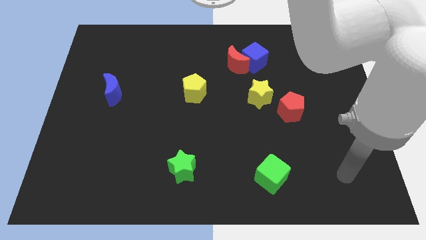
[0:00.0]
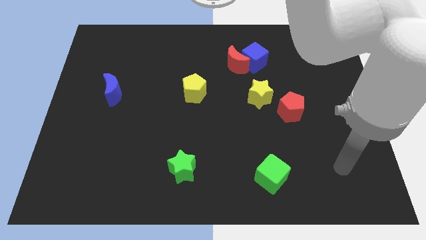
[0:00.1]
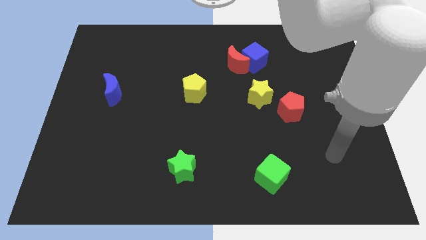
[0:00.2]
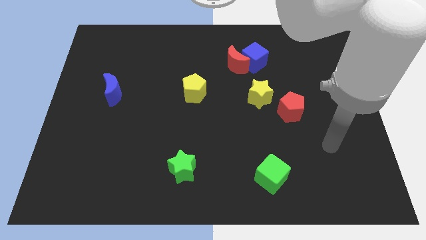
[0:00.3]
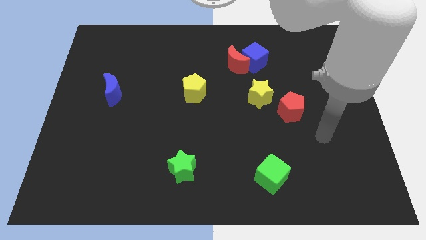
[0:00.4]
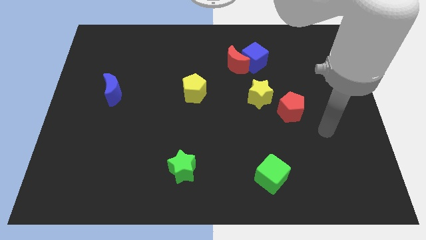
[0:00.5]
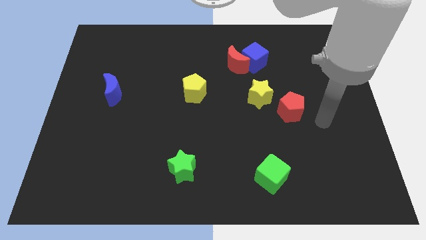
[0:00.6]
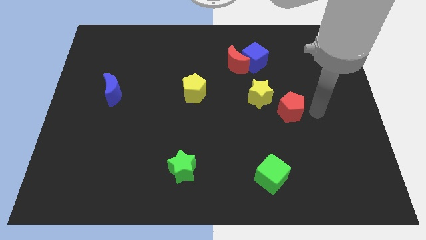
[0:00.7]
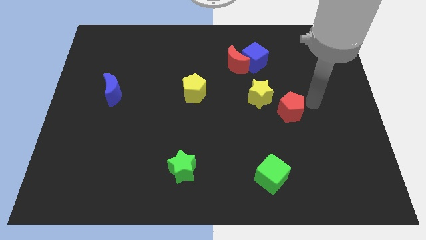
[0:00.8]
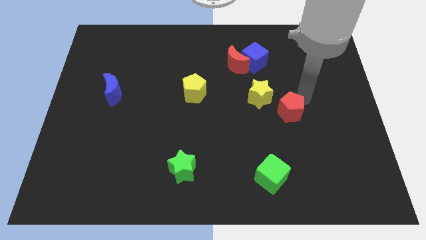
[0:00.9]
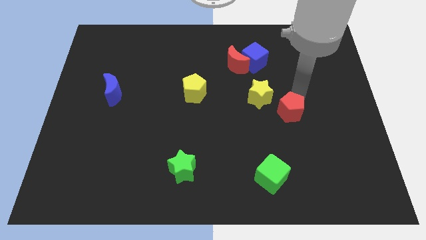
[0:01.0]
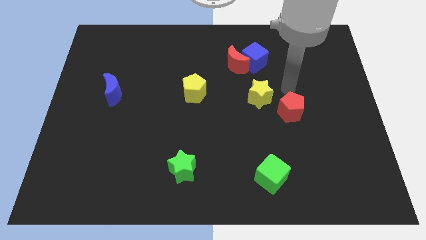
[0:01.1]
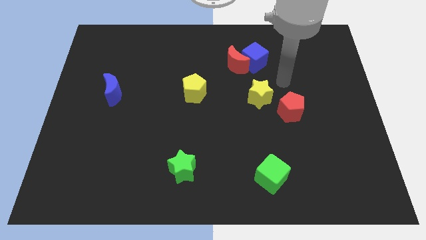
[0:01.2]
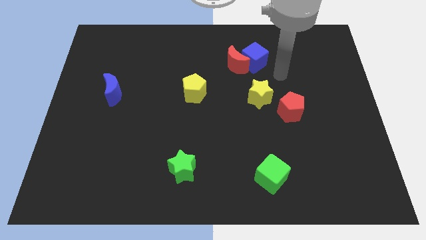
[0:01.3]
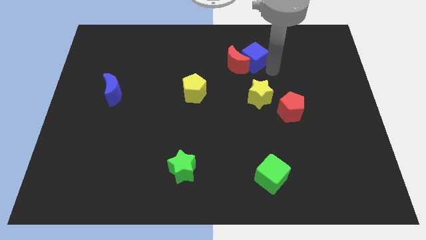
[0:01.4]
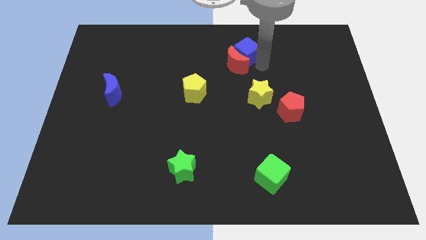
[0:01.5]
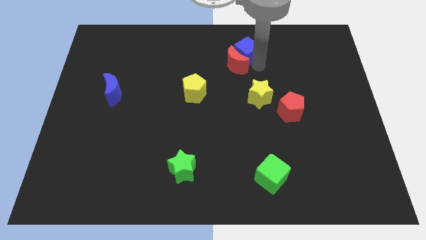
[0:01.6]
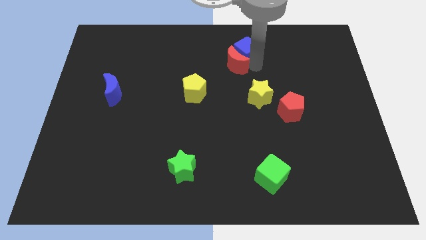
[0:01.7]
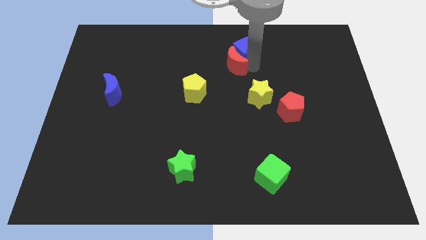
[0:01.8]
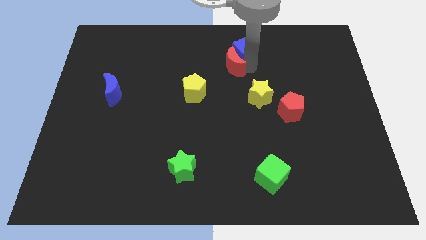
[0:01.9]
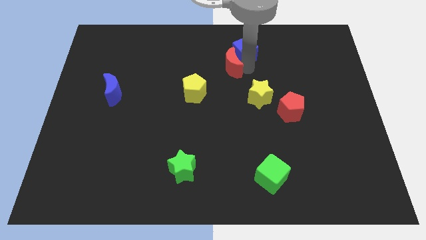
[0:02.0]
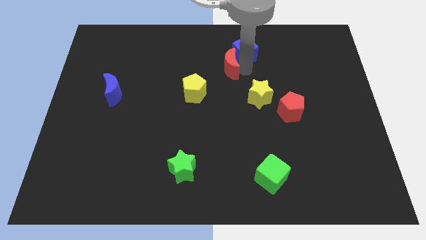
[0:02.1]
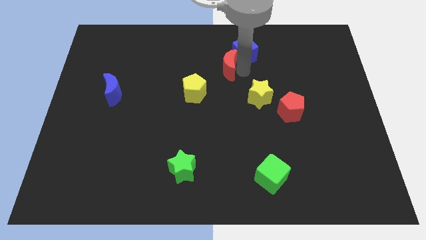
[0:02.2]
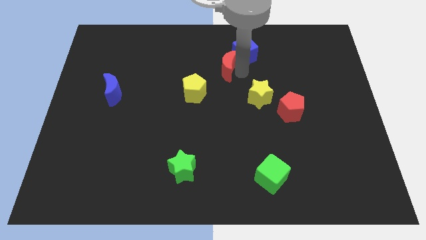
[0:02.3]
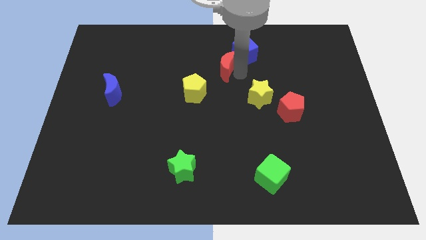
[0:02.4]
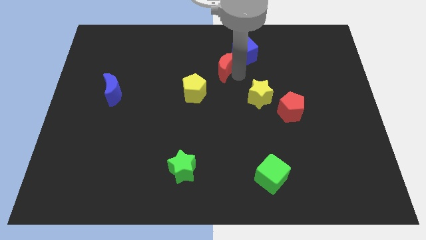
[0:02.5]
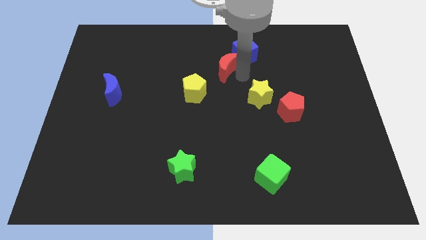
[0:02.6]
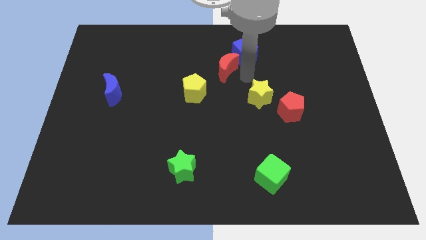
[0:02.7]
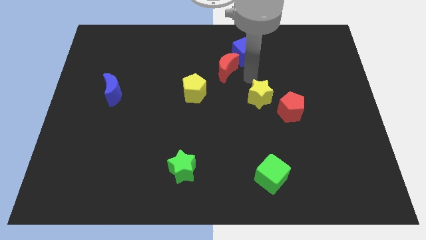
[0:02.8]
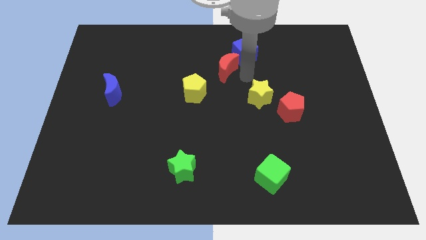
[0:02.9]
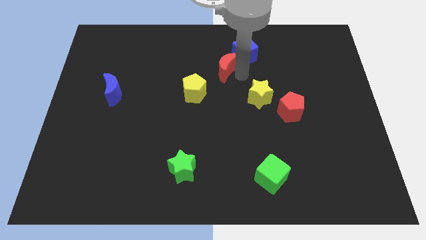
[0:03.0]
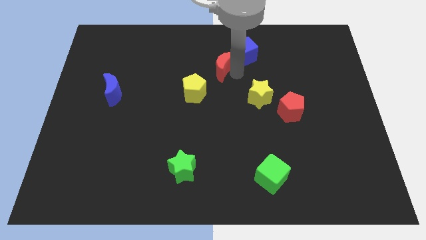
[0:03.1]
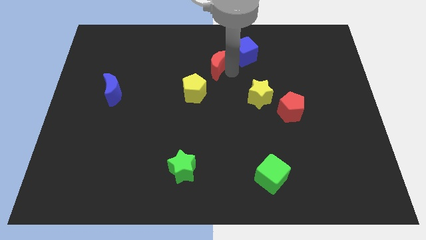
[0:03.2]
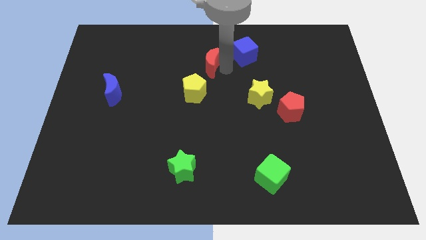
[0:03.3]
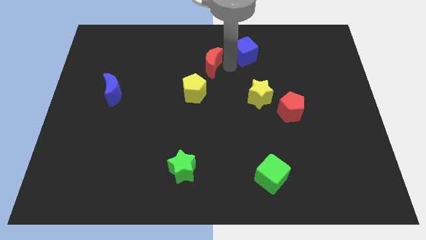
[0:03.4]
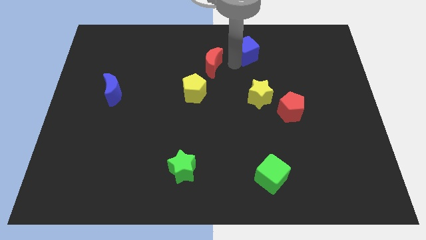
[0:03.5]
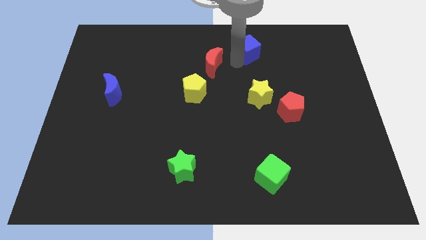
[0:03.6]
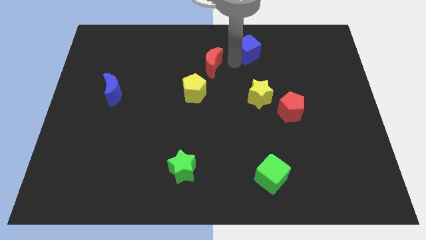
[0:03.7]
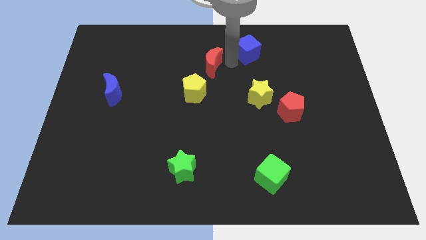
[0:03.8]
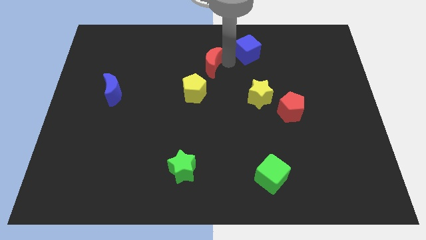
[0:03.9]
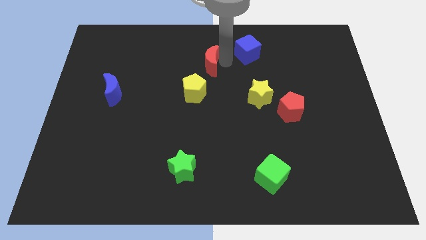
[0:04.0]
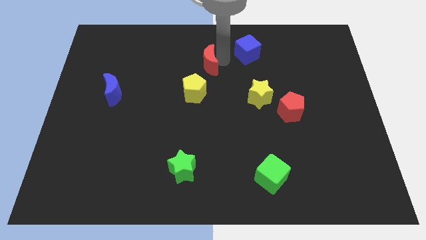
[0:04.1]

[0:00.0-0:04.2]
slightly slide the red moon left

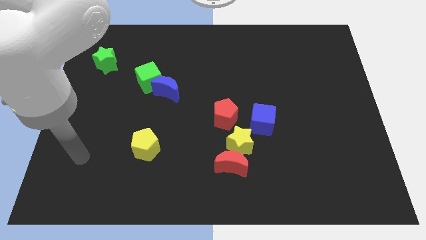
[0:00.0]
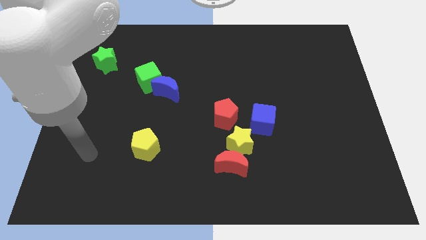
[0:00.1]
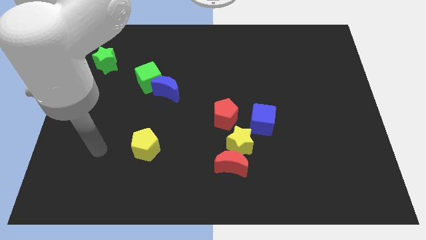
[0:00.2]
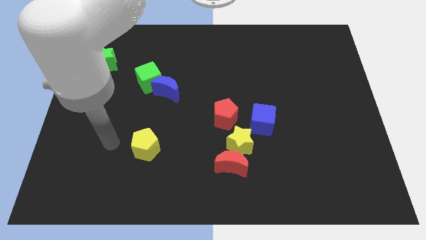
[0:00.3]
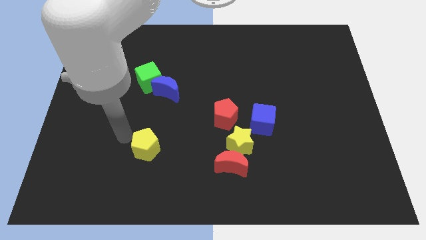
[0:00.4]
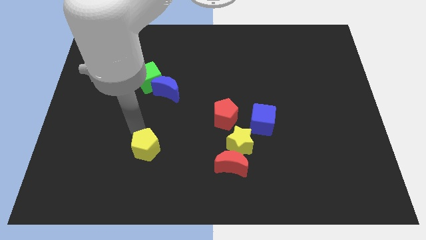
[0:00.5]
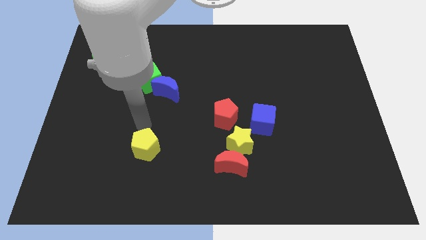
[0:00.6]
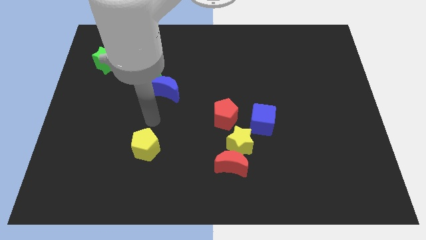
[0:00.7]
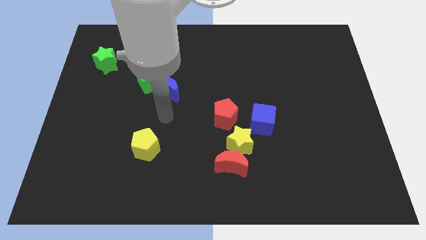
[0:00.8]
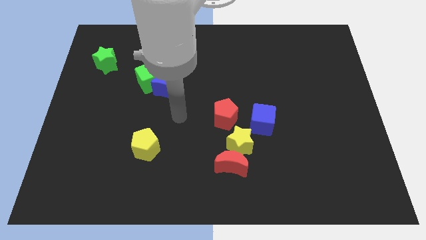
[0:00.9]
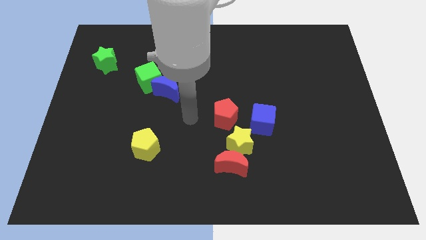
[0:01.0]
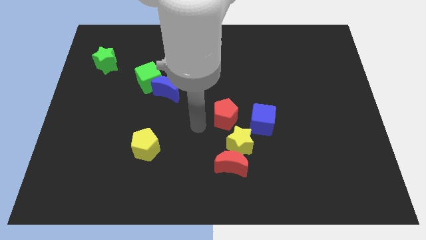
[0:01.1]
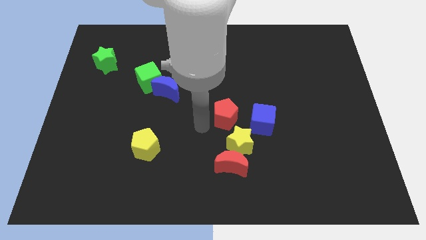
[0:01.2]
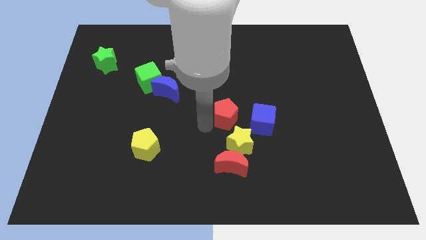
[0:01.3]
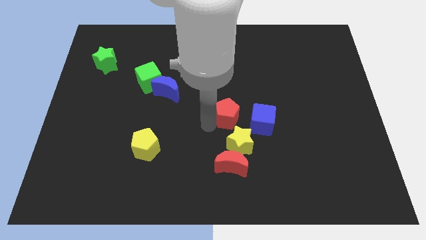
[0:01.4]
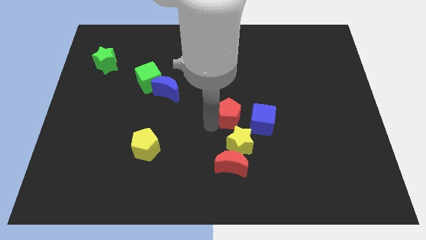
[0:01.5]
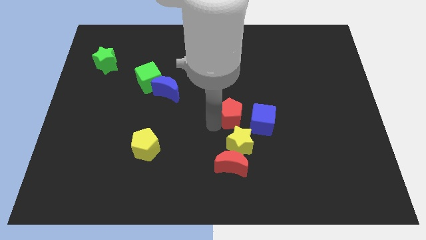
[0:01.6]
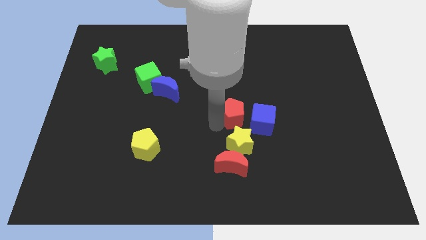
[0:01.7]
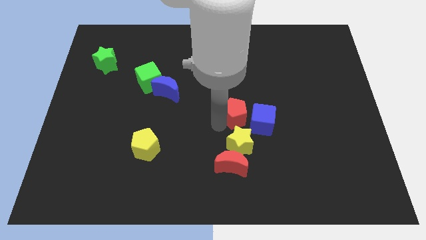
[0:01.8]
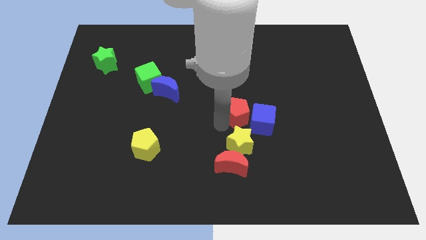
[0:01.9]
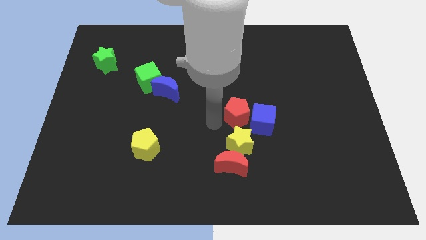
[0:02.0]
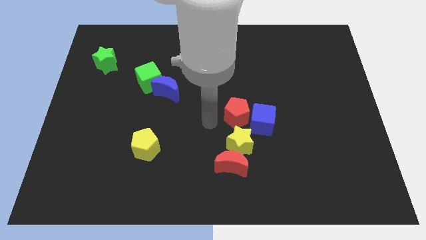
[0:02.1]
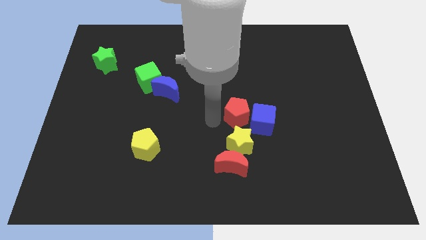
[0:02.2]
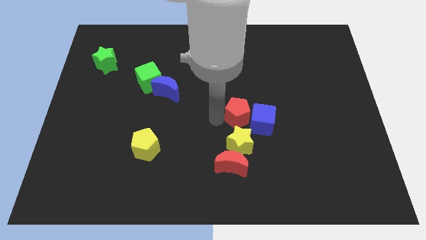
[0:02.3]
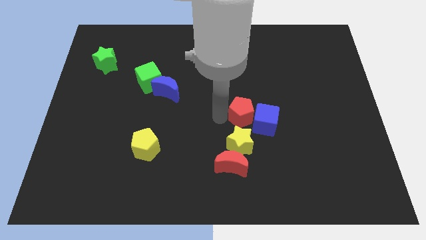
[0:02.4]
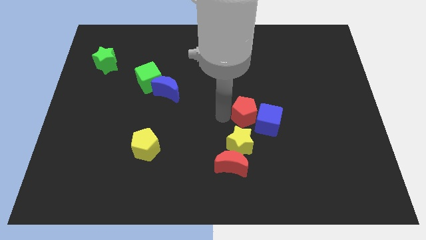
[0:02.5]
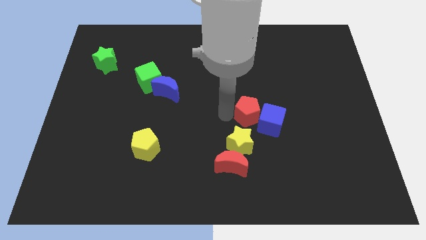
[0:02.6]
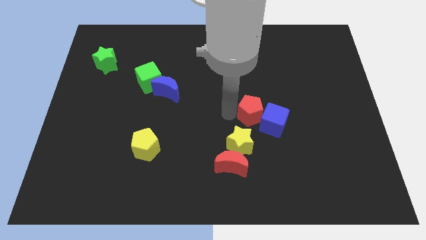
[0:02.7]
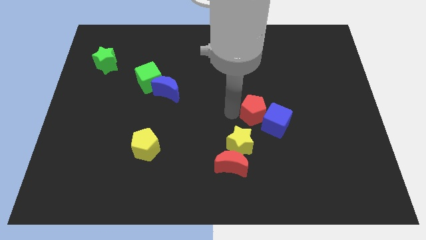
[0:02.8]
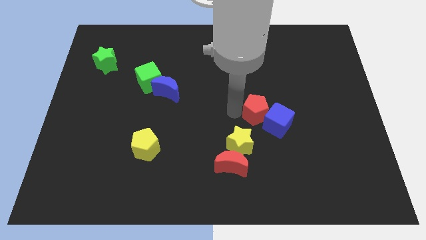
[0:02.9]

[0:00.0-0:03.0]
slightly slide the red pentagon to the right

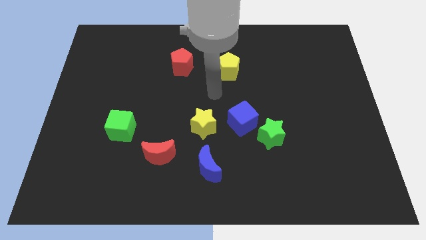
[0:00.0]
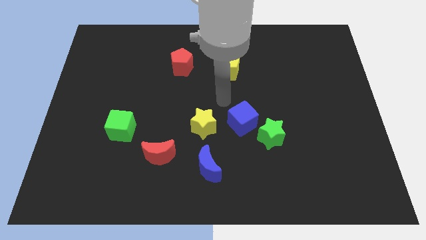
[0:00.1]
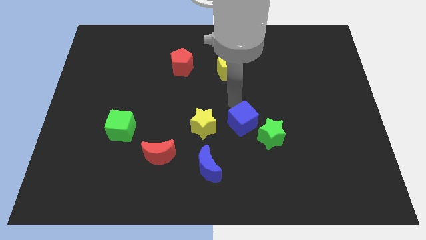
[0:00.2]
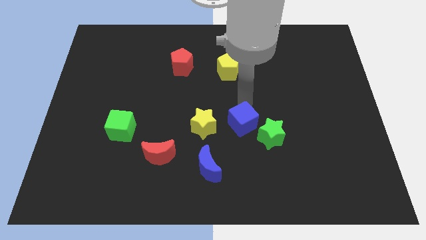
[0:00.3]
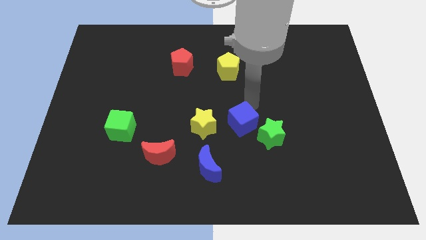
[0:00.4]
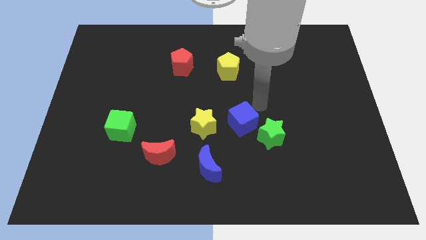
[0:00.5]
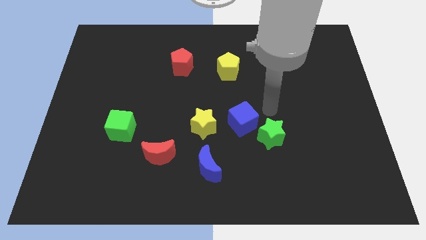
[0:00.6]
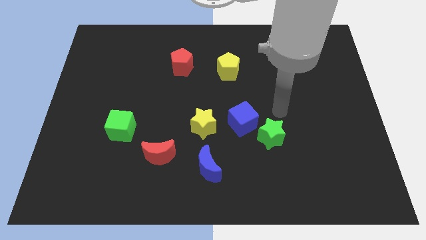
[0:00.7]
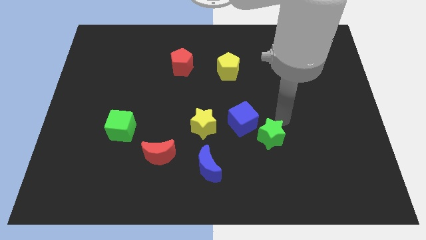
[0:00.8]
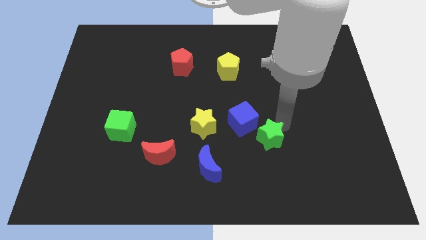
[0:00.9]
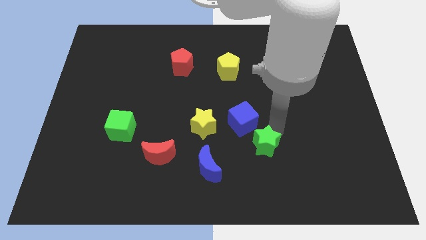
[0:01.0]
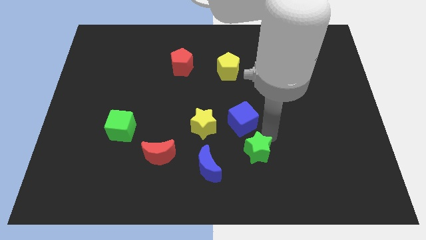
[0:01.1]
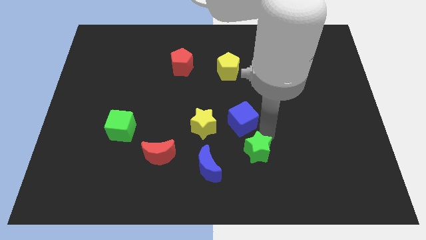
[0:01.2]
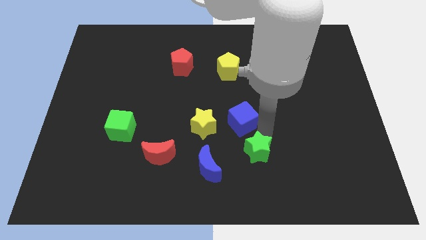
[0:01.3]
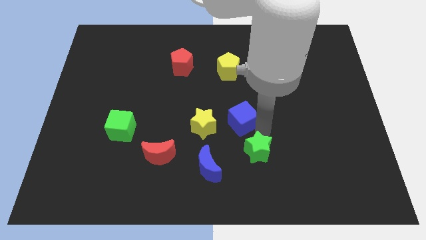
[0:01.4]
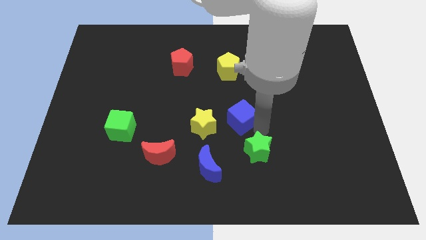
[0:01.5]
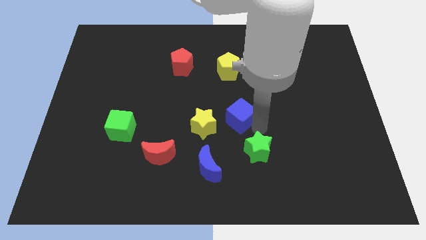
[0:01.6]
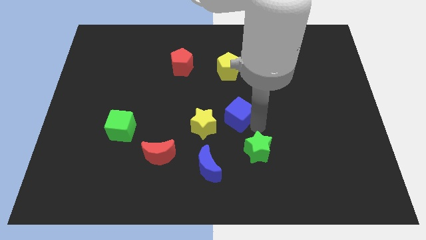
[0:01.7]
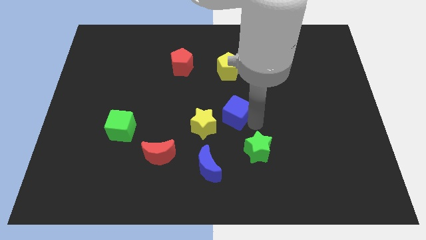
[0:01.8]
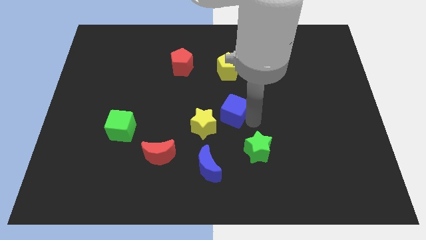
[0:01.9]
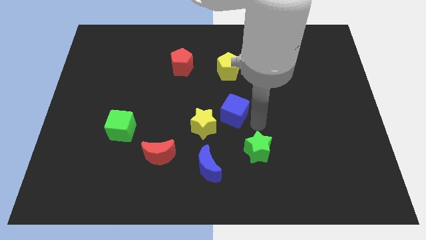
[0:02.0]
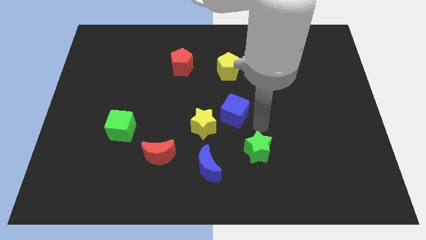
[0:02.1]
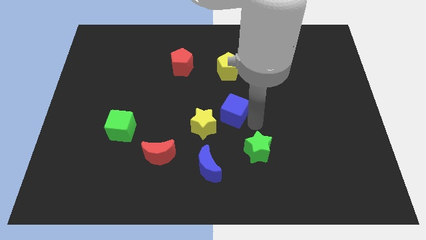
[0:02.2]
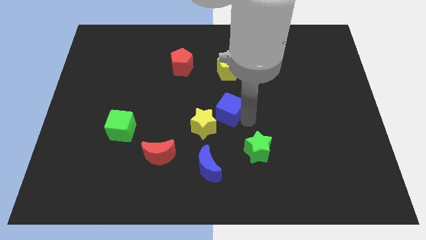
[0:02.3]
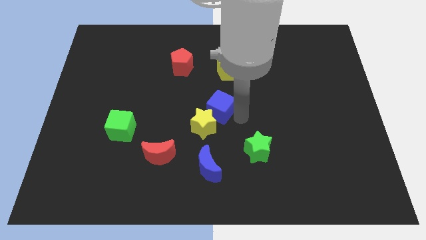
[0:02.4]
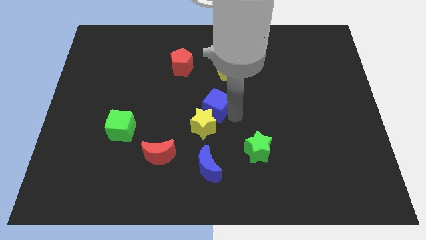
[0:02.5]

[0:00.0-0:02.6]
slide the blue cube a little bit diagonally up and to the left
